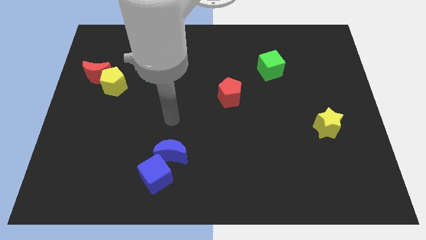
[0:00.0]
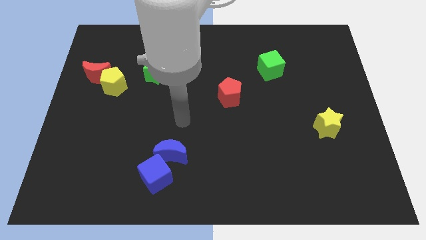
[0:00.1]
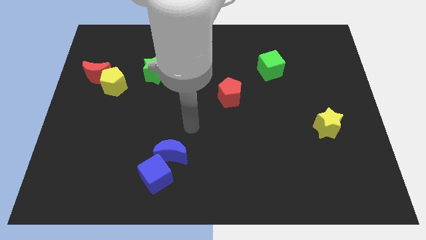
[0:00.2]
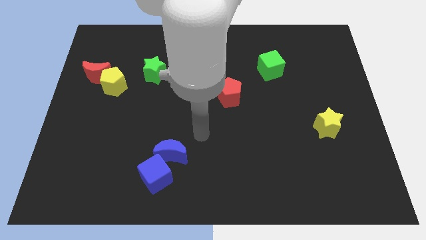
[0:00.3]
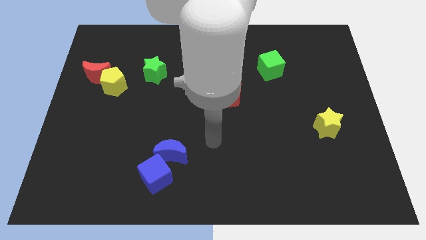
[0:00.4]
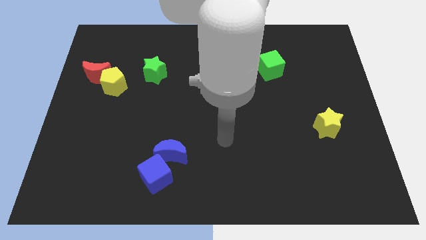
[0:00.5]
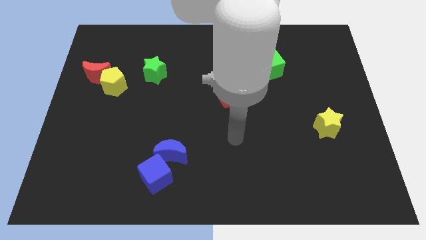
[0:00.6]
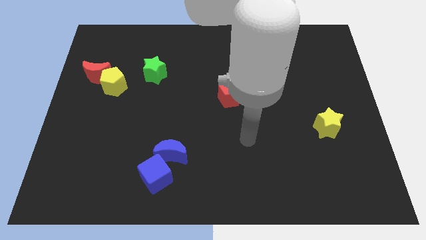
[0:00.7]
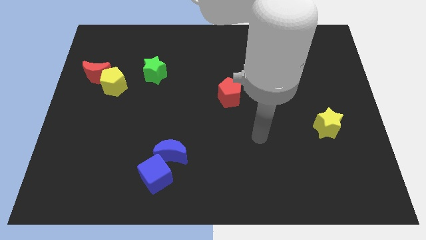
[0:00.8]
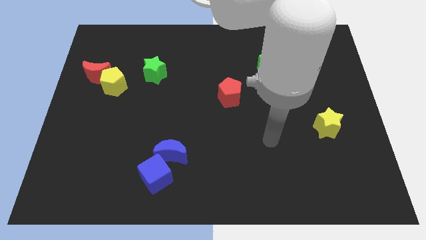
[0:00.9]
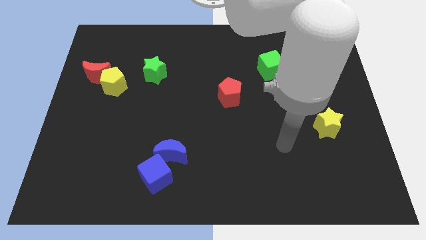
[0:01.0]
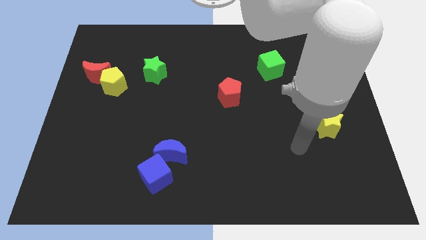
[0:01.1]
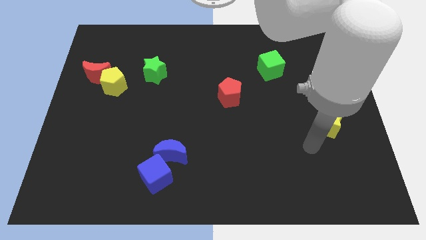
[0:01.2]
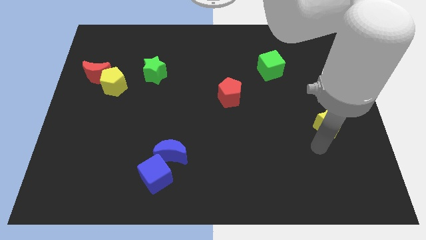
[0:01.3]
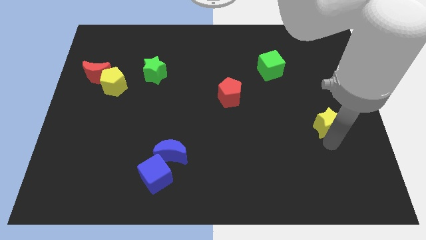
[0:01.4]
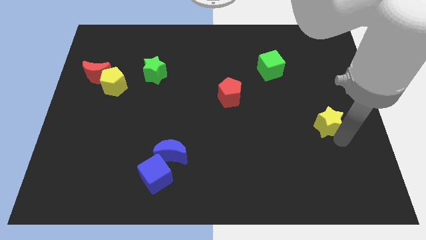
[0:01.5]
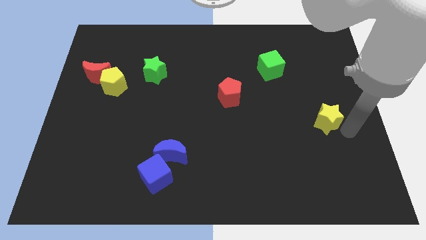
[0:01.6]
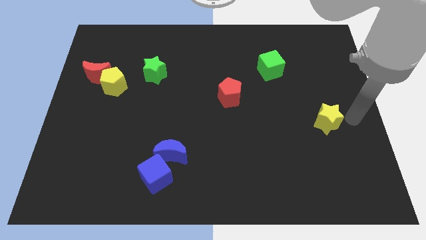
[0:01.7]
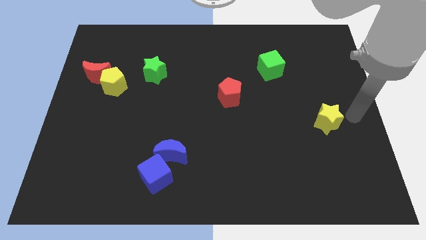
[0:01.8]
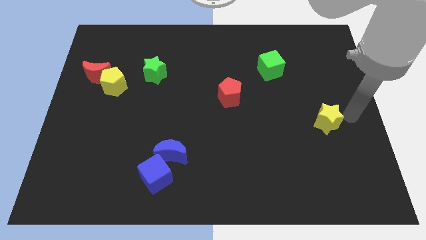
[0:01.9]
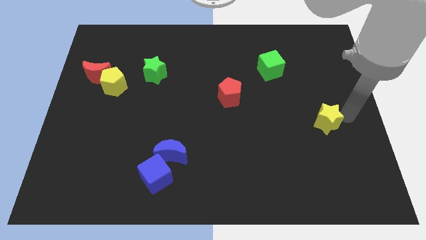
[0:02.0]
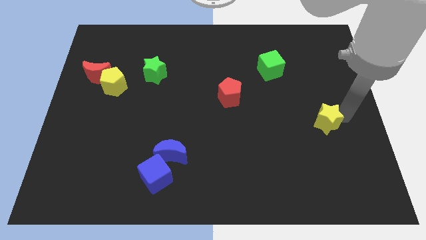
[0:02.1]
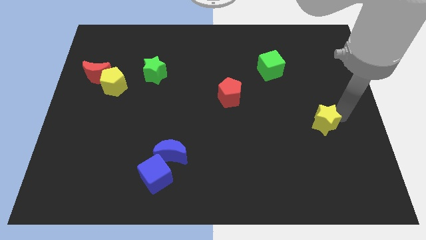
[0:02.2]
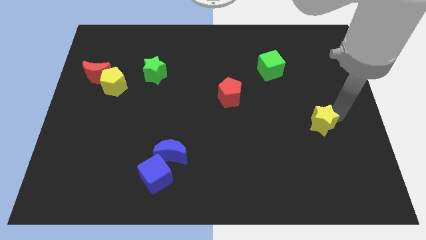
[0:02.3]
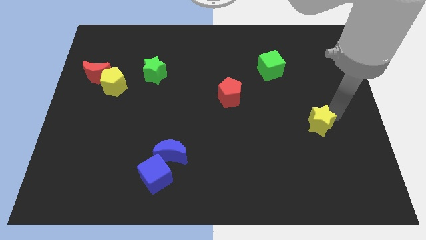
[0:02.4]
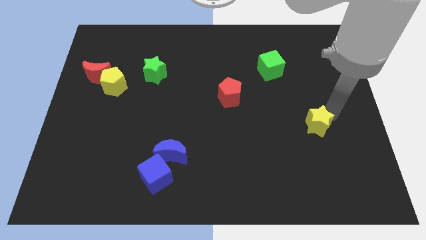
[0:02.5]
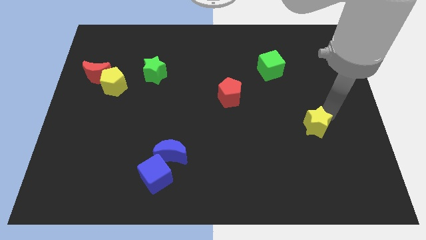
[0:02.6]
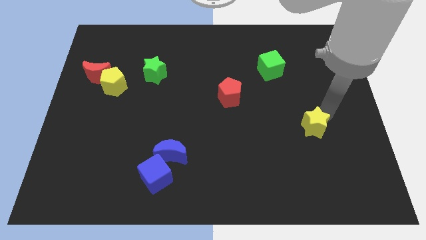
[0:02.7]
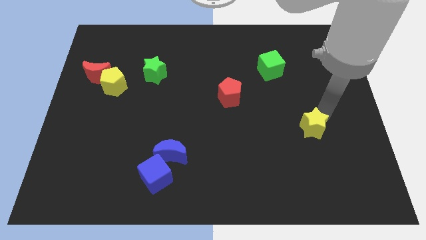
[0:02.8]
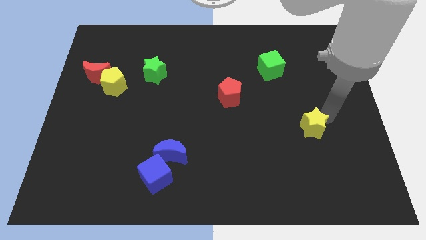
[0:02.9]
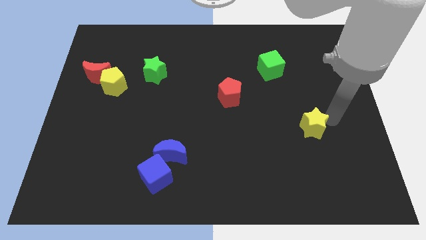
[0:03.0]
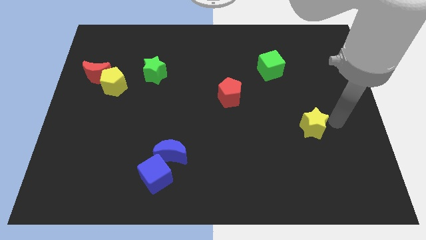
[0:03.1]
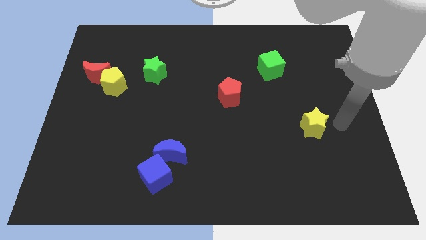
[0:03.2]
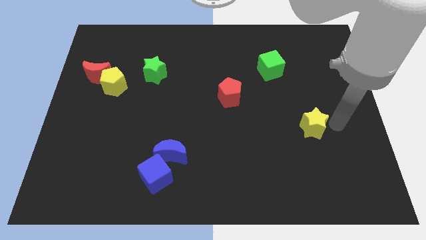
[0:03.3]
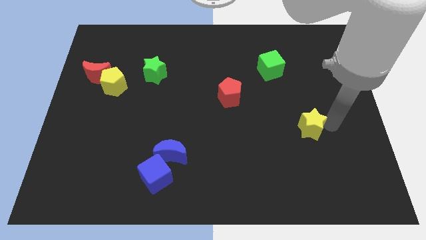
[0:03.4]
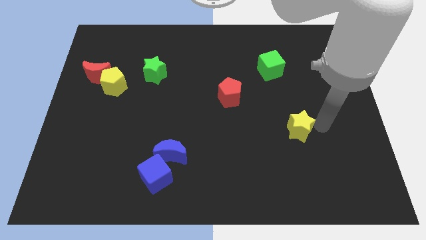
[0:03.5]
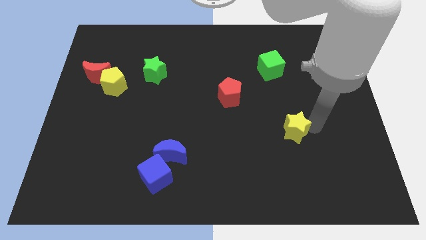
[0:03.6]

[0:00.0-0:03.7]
move the yellow star a bit left

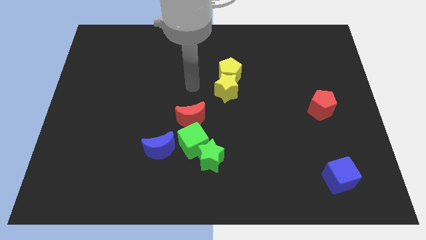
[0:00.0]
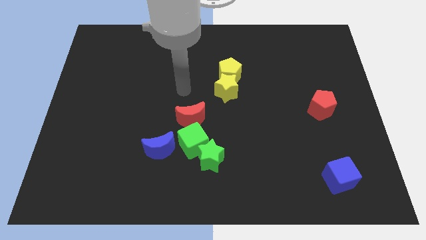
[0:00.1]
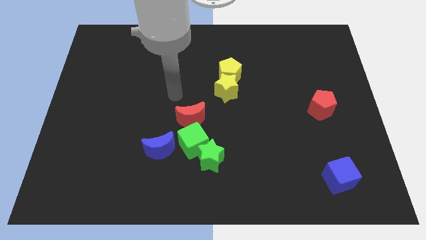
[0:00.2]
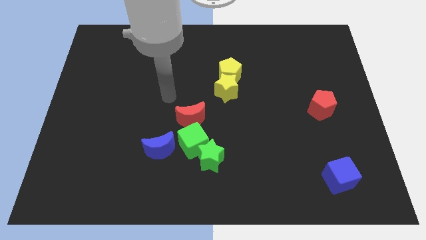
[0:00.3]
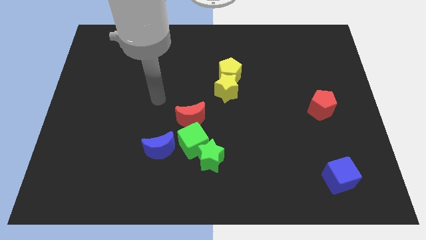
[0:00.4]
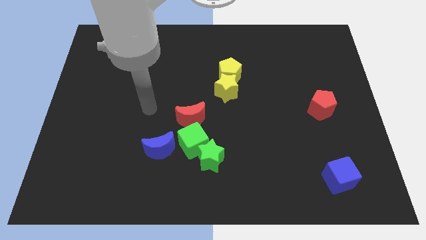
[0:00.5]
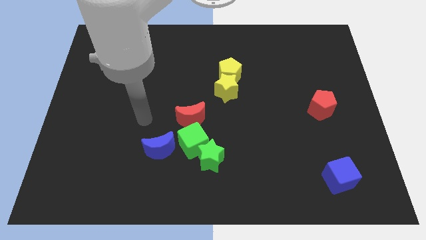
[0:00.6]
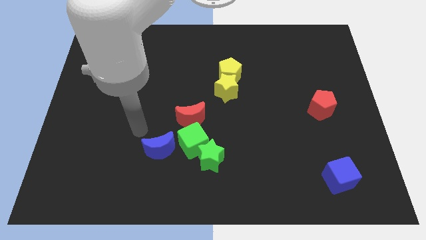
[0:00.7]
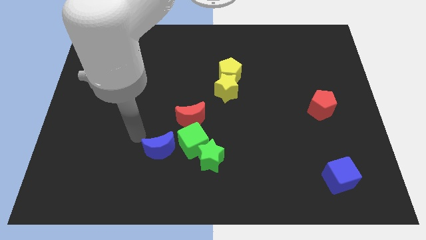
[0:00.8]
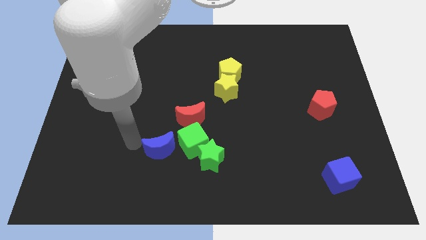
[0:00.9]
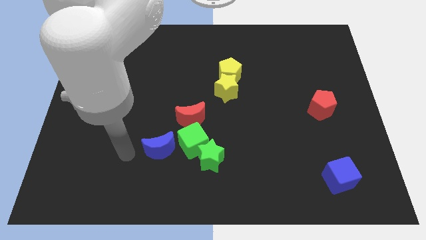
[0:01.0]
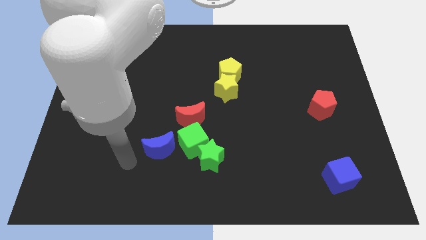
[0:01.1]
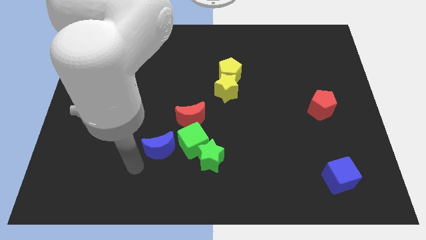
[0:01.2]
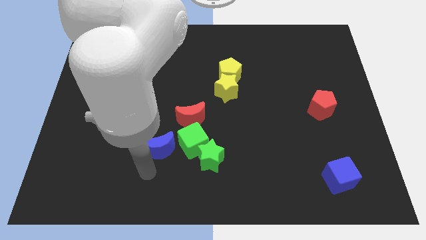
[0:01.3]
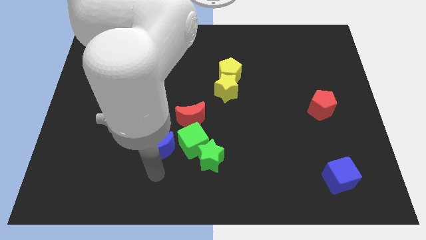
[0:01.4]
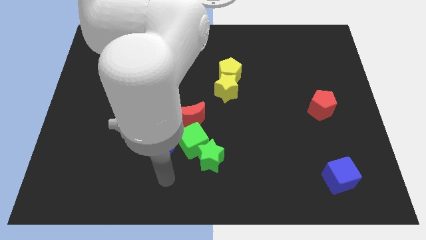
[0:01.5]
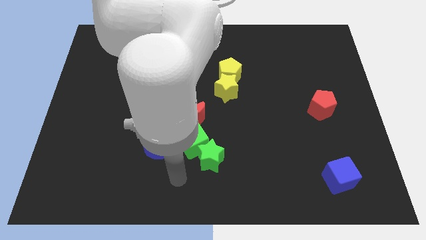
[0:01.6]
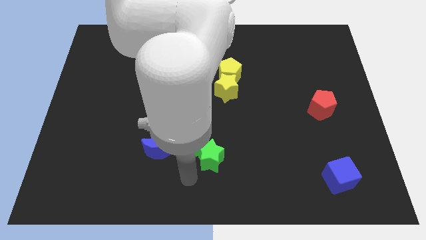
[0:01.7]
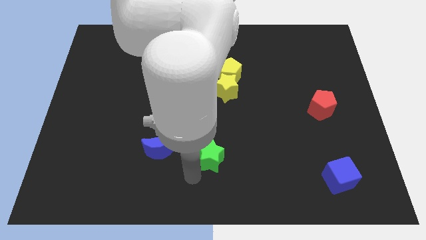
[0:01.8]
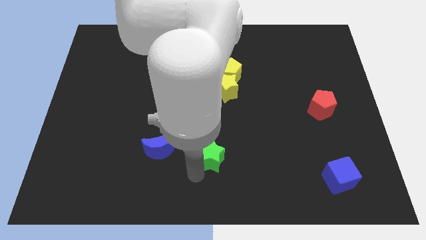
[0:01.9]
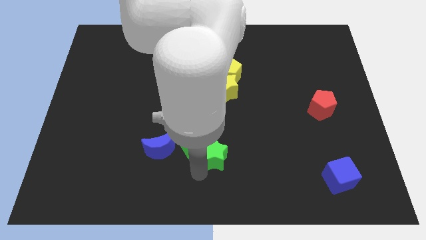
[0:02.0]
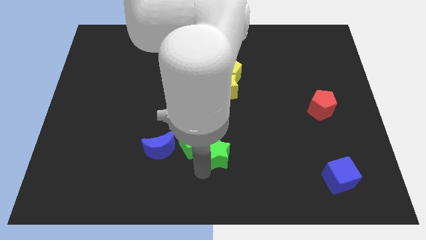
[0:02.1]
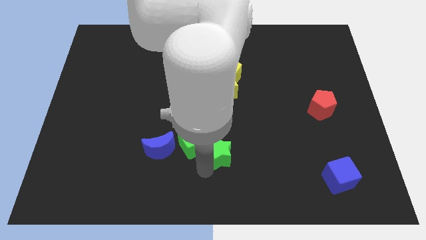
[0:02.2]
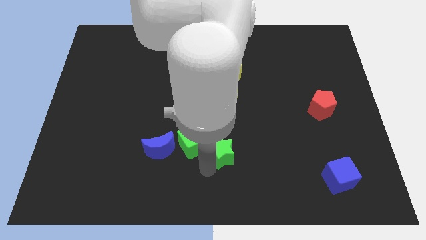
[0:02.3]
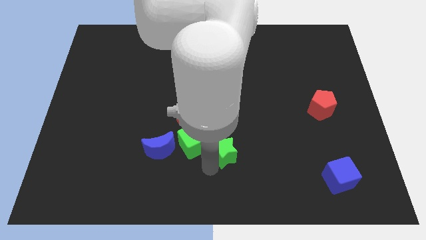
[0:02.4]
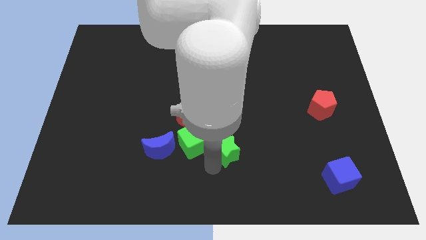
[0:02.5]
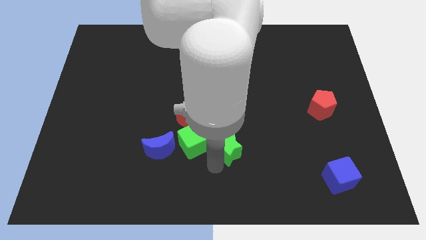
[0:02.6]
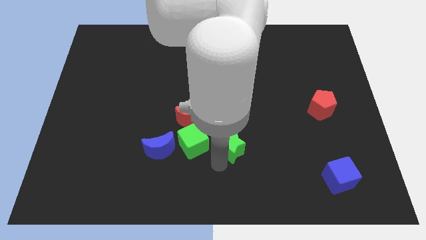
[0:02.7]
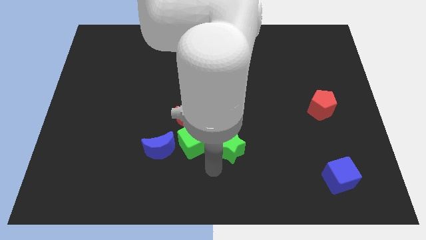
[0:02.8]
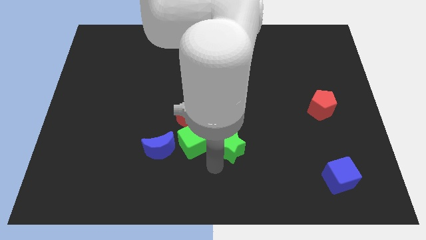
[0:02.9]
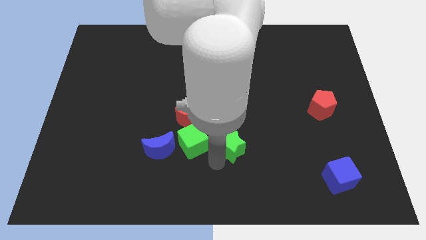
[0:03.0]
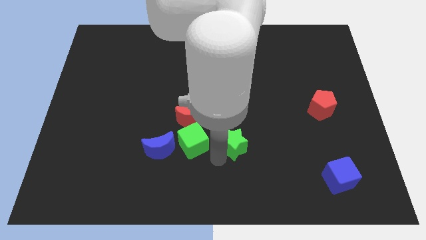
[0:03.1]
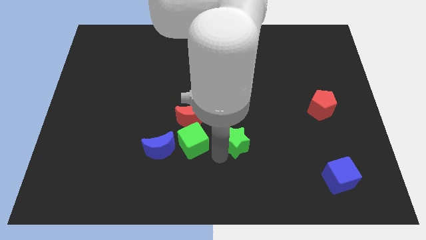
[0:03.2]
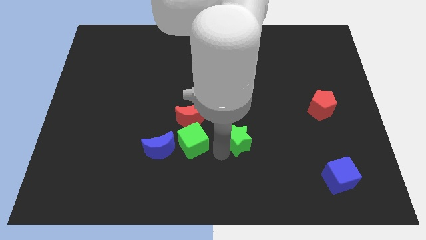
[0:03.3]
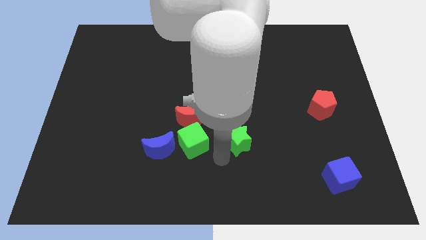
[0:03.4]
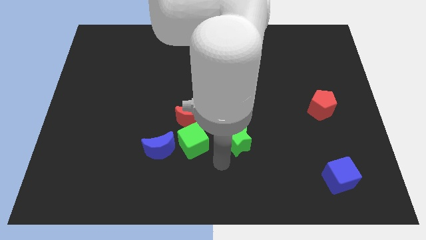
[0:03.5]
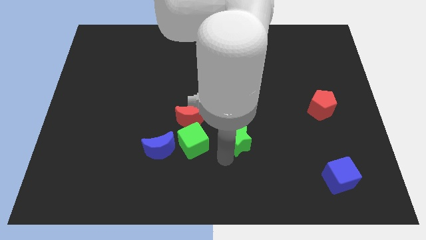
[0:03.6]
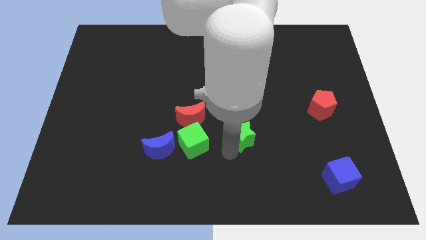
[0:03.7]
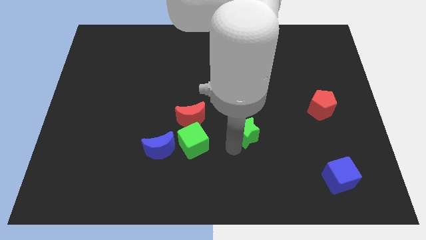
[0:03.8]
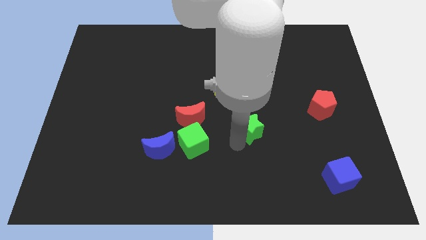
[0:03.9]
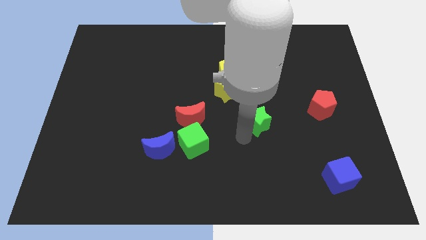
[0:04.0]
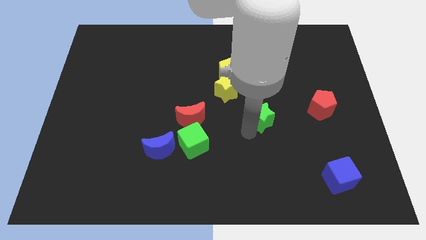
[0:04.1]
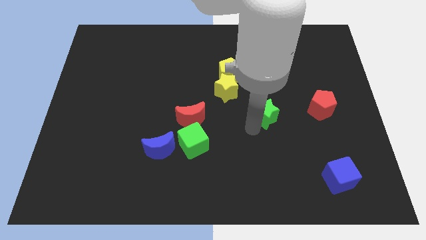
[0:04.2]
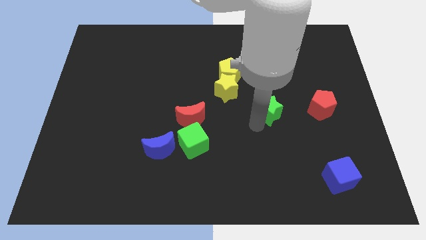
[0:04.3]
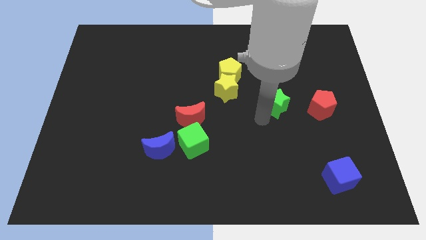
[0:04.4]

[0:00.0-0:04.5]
move the green star up and then to the right
